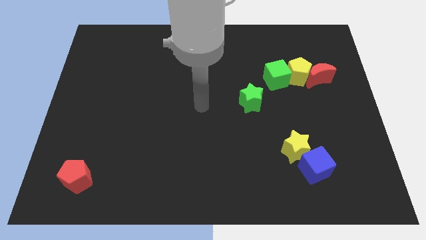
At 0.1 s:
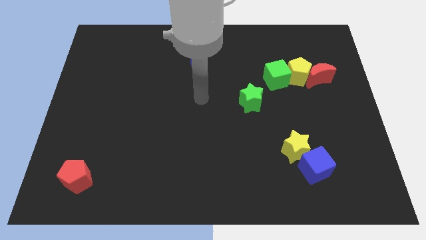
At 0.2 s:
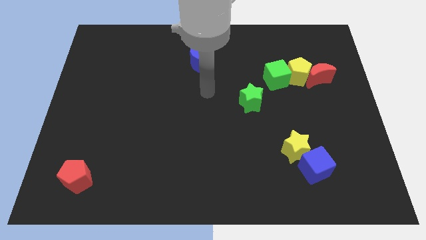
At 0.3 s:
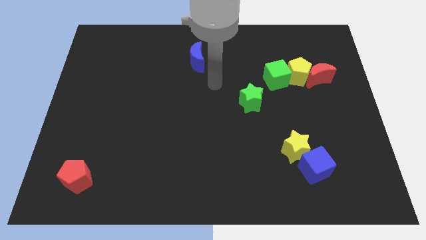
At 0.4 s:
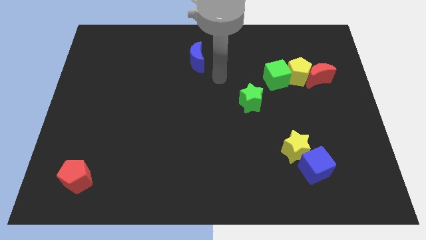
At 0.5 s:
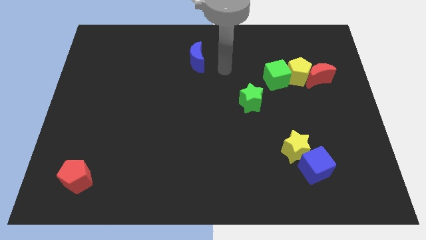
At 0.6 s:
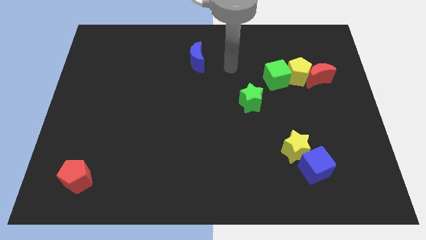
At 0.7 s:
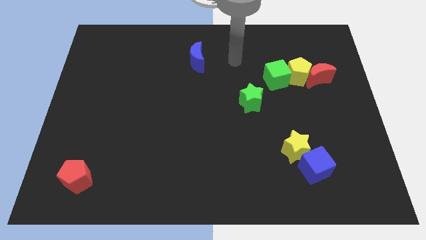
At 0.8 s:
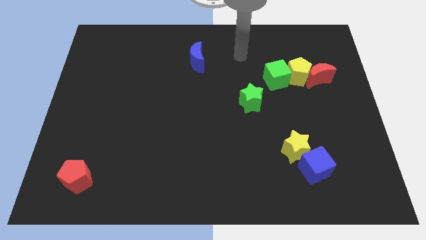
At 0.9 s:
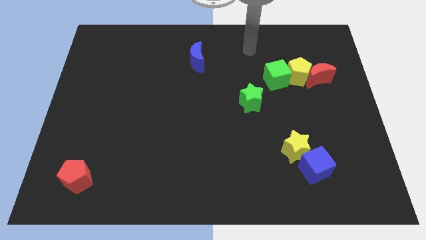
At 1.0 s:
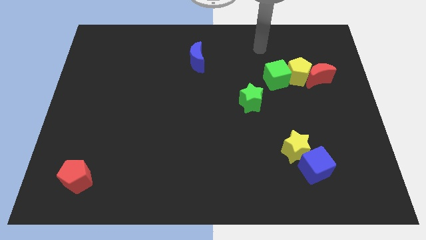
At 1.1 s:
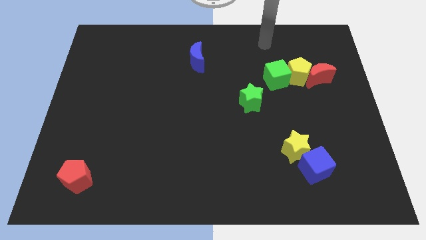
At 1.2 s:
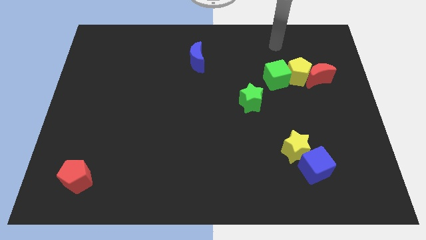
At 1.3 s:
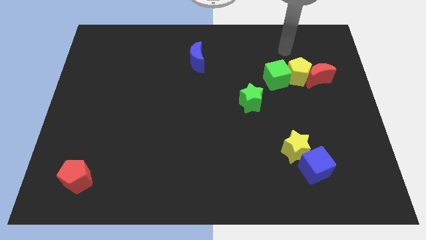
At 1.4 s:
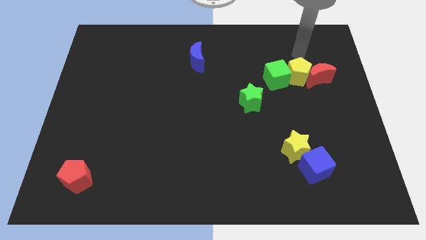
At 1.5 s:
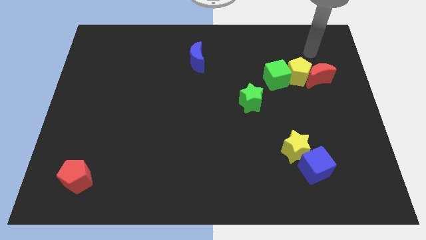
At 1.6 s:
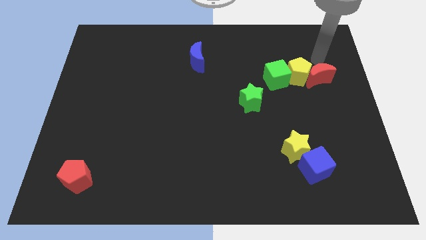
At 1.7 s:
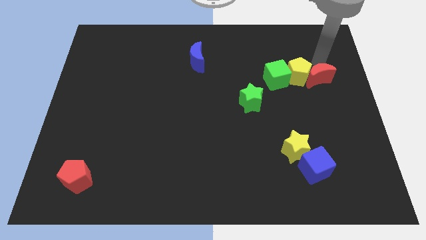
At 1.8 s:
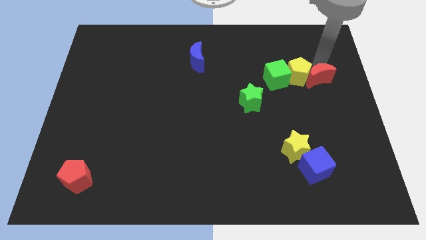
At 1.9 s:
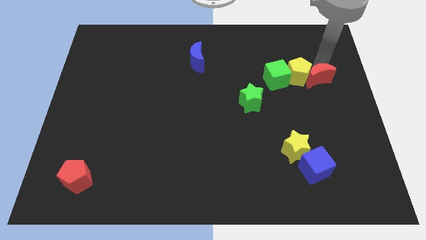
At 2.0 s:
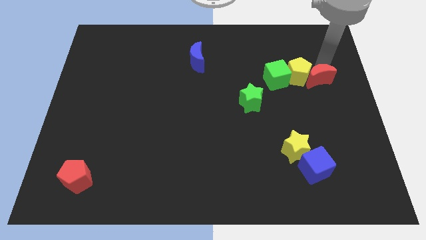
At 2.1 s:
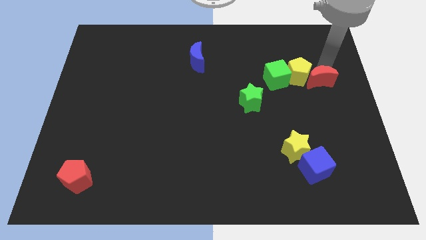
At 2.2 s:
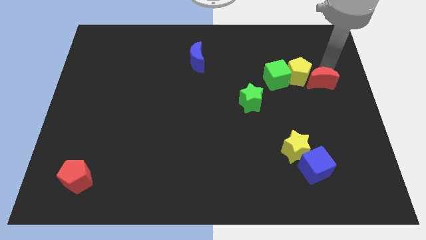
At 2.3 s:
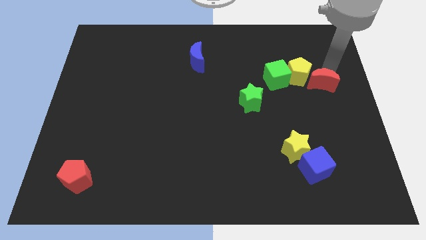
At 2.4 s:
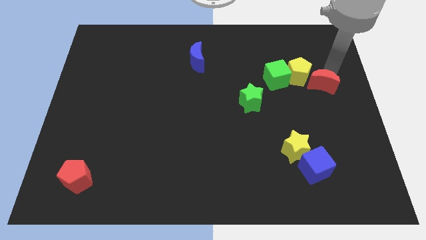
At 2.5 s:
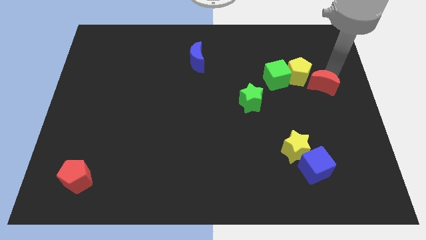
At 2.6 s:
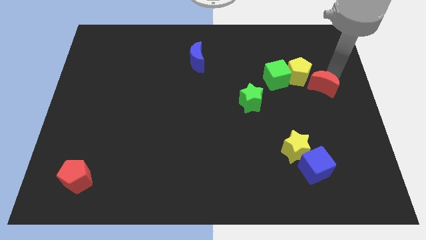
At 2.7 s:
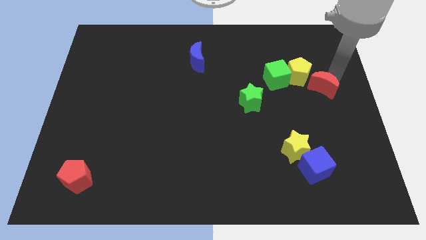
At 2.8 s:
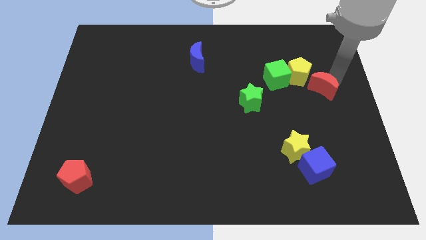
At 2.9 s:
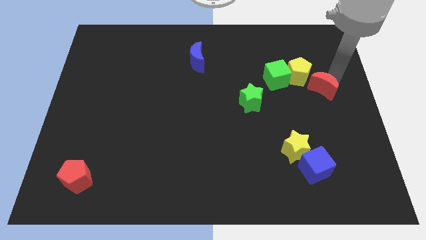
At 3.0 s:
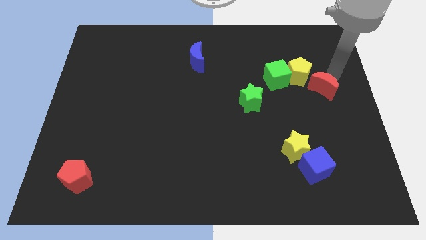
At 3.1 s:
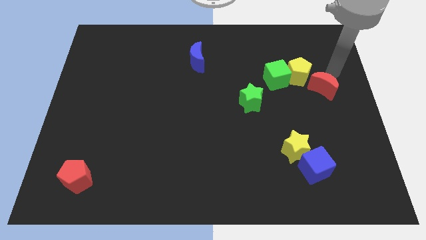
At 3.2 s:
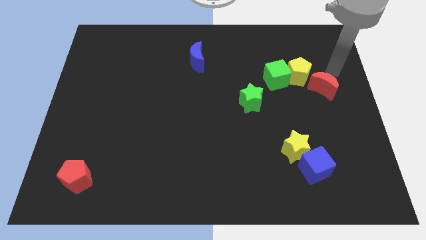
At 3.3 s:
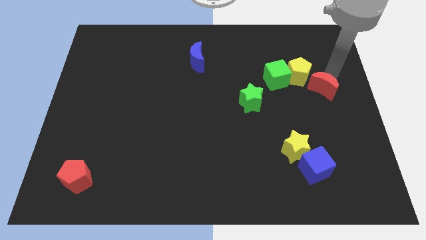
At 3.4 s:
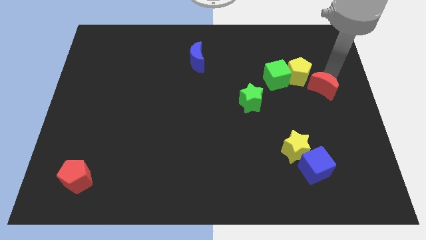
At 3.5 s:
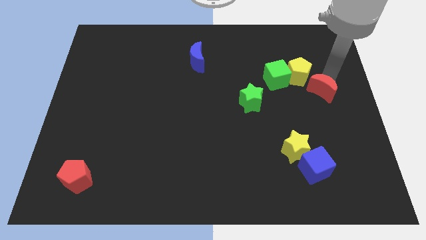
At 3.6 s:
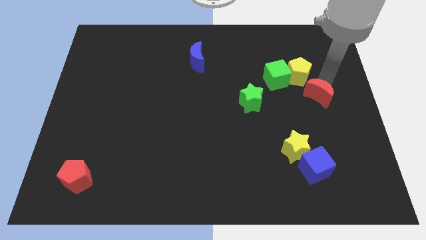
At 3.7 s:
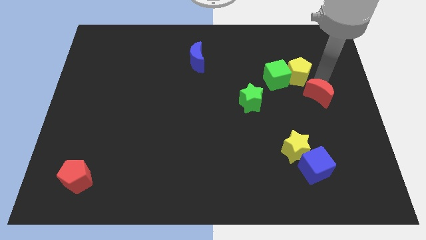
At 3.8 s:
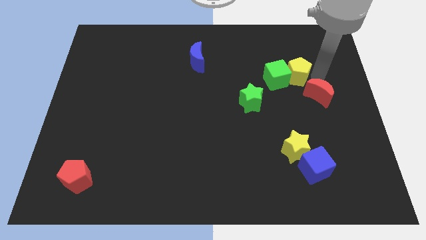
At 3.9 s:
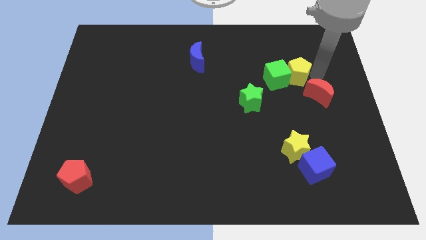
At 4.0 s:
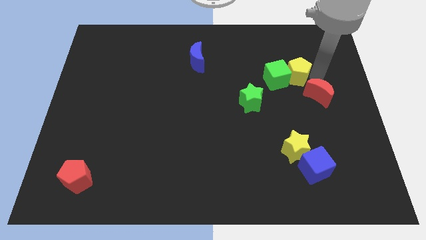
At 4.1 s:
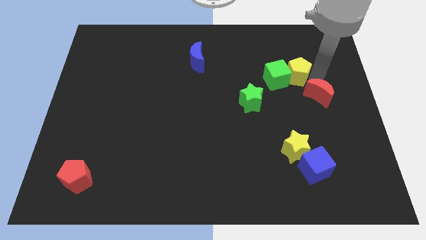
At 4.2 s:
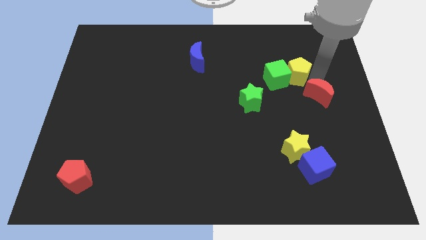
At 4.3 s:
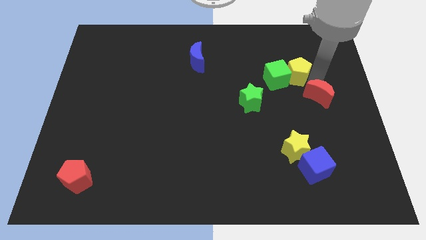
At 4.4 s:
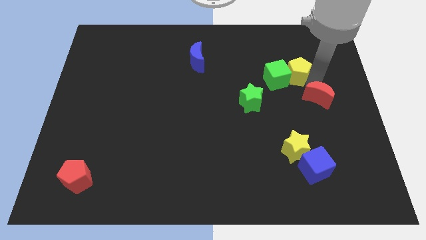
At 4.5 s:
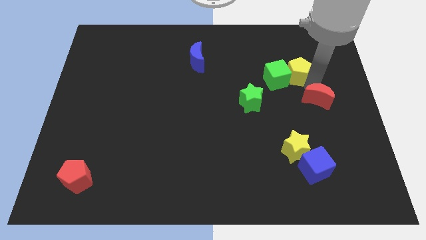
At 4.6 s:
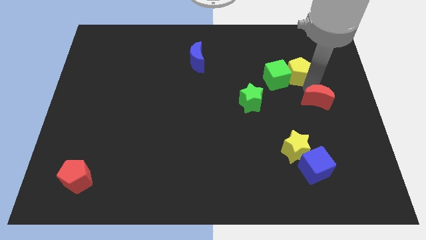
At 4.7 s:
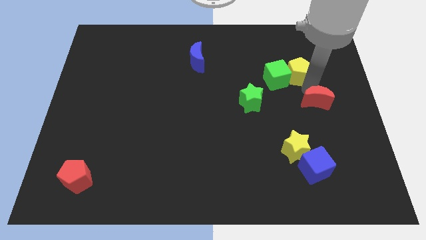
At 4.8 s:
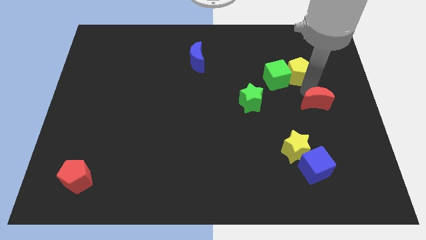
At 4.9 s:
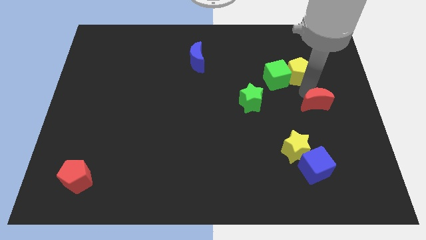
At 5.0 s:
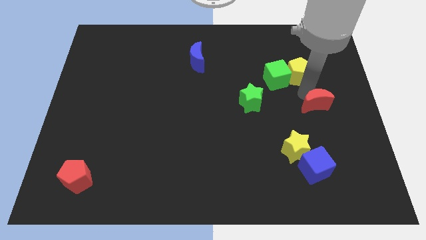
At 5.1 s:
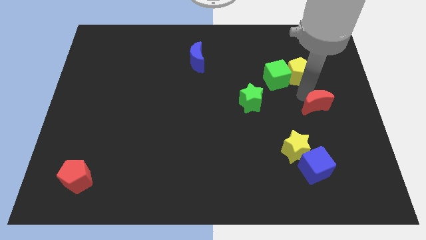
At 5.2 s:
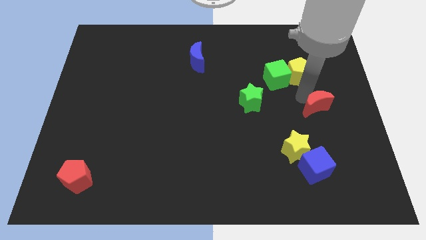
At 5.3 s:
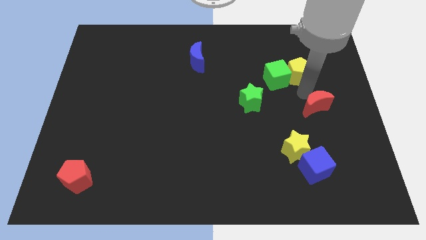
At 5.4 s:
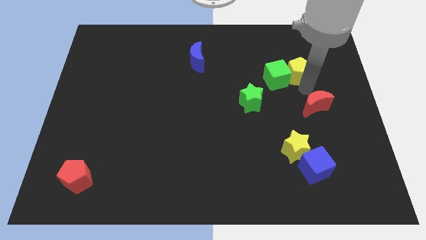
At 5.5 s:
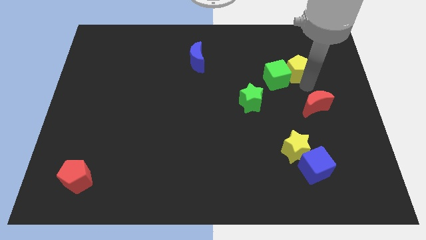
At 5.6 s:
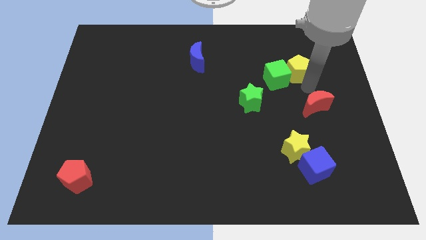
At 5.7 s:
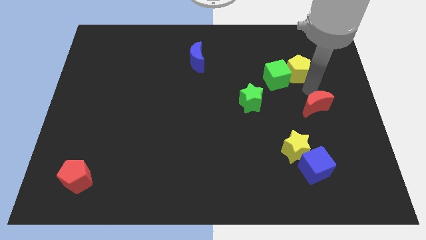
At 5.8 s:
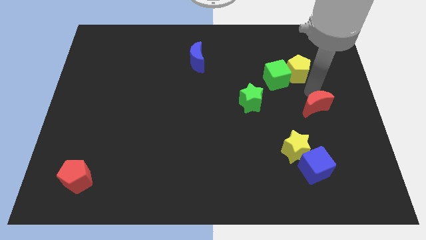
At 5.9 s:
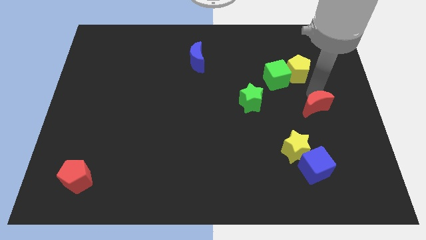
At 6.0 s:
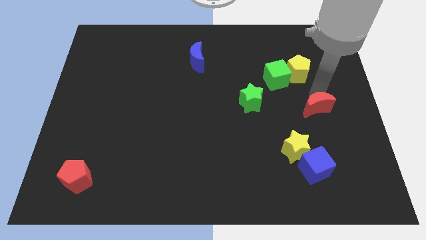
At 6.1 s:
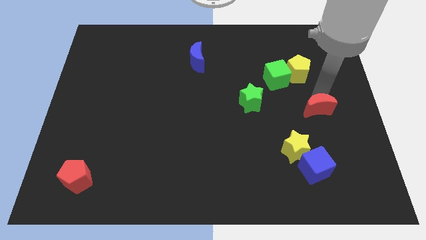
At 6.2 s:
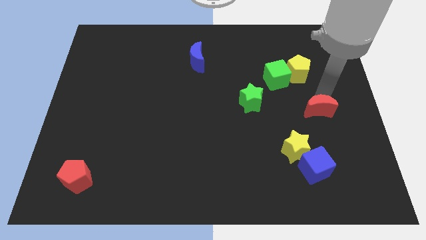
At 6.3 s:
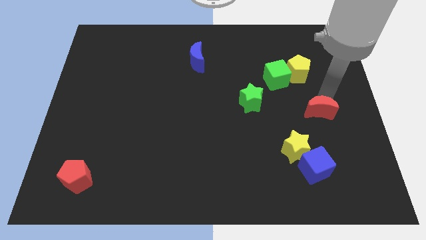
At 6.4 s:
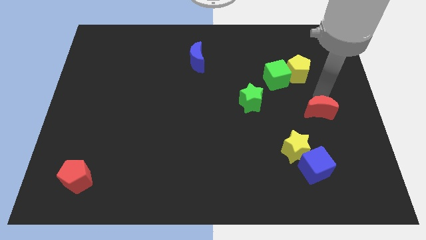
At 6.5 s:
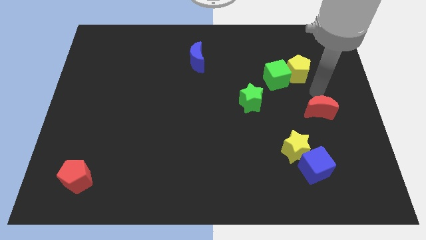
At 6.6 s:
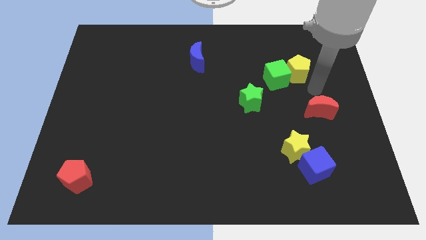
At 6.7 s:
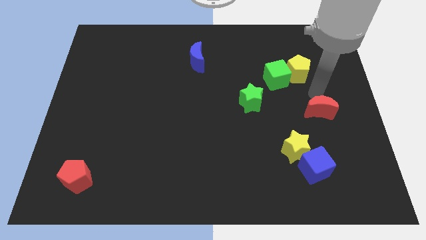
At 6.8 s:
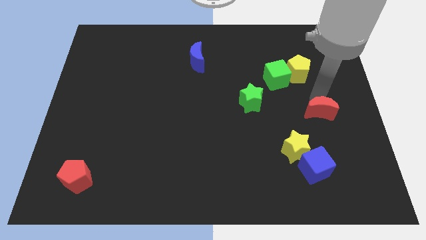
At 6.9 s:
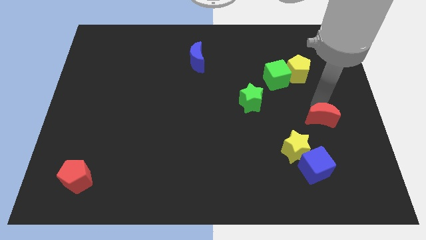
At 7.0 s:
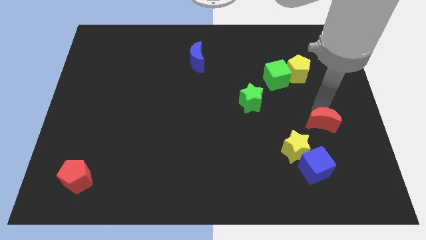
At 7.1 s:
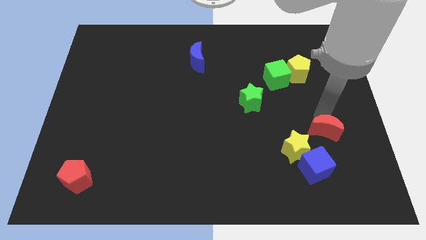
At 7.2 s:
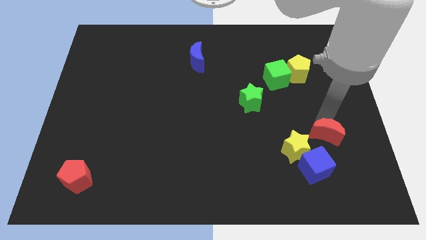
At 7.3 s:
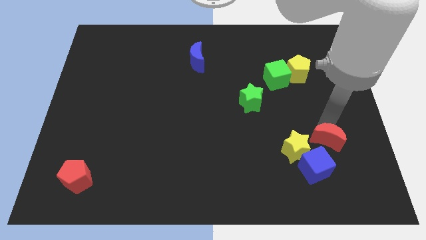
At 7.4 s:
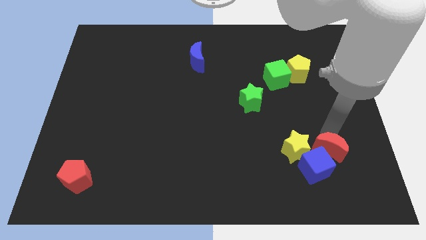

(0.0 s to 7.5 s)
slide the red moon towards the blue cube

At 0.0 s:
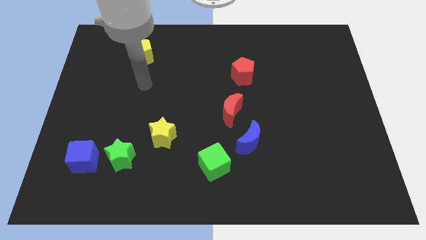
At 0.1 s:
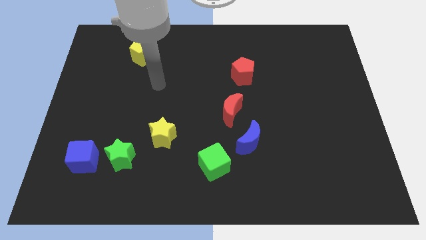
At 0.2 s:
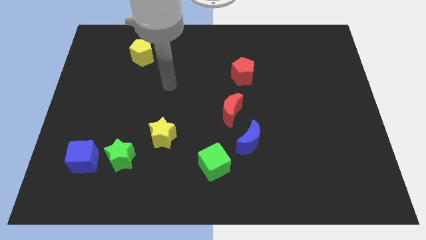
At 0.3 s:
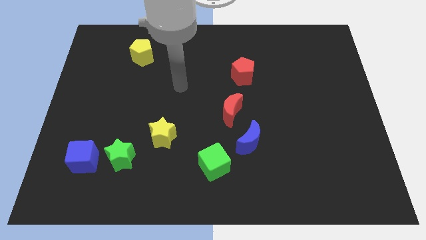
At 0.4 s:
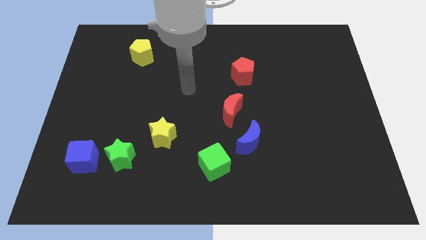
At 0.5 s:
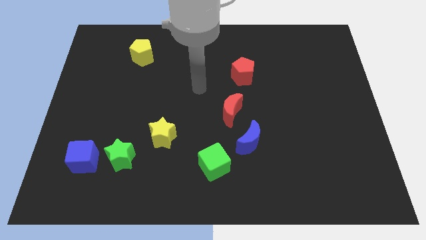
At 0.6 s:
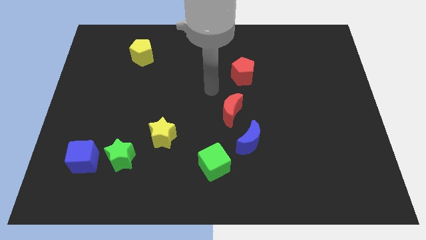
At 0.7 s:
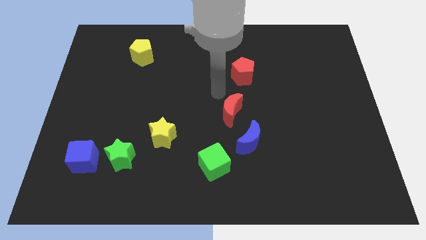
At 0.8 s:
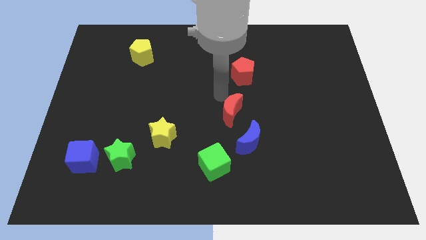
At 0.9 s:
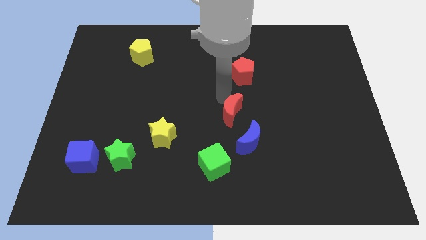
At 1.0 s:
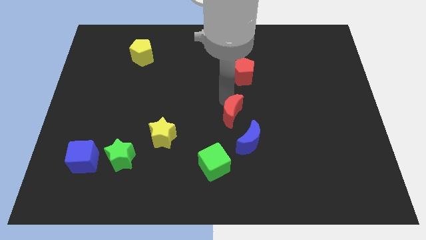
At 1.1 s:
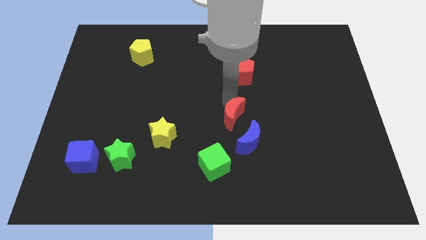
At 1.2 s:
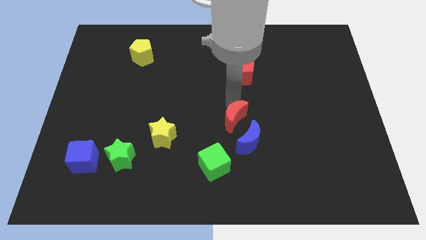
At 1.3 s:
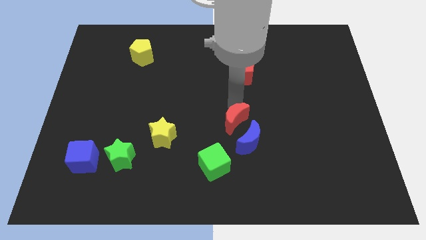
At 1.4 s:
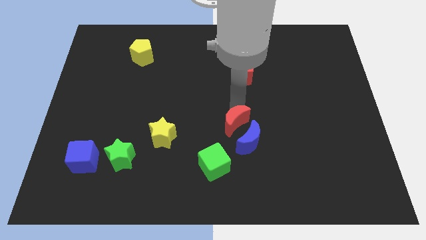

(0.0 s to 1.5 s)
move the red moon close to the blue moon
